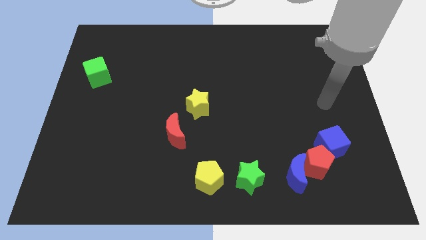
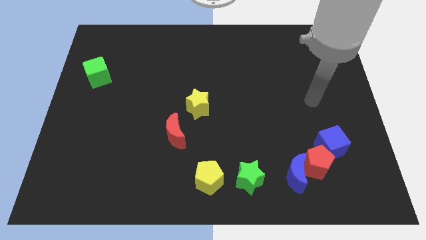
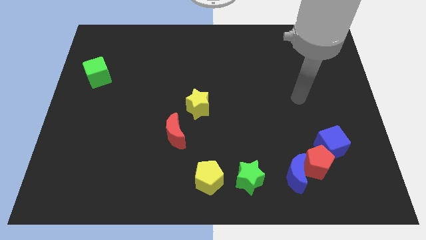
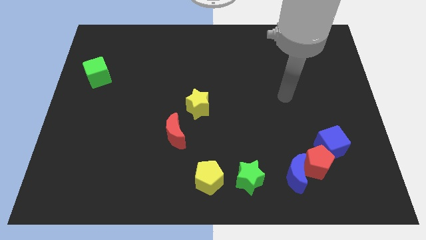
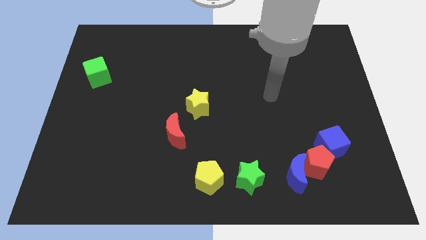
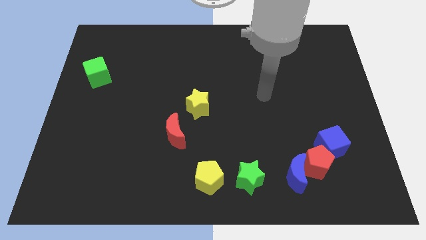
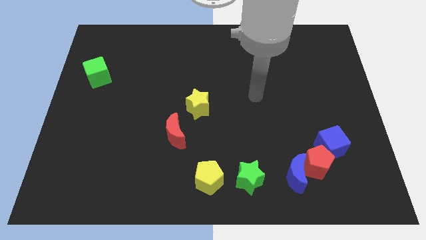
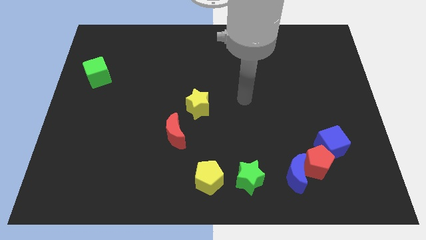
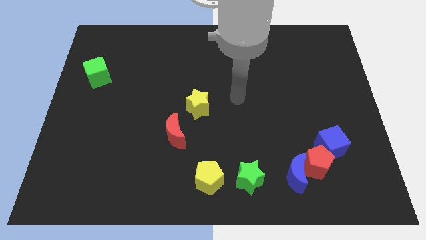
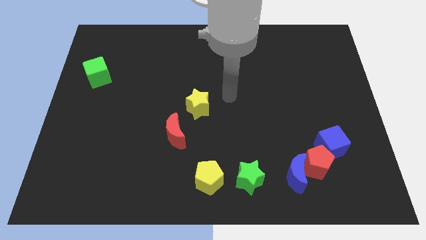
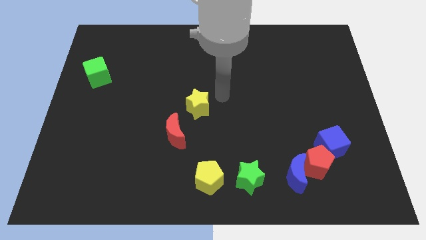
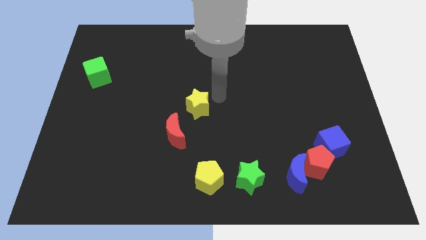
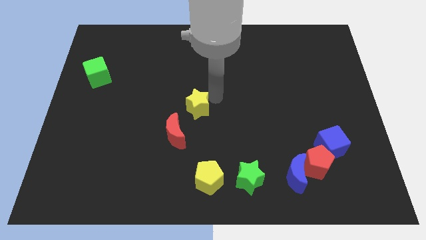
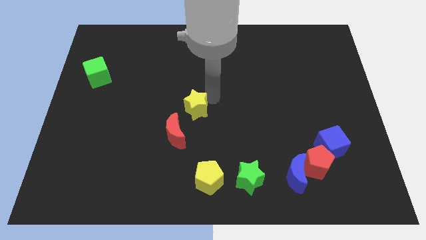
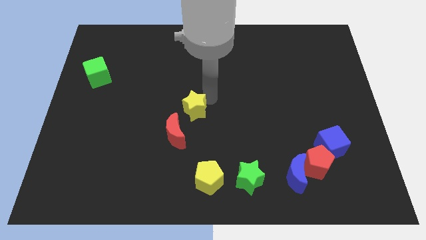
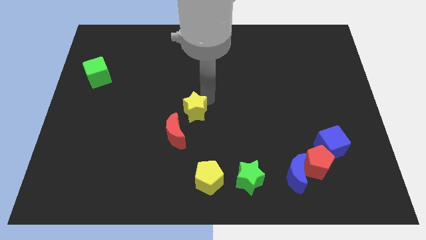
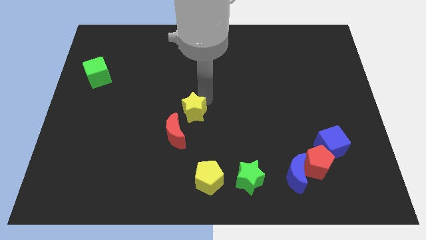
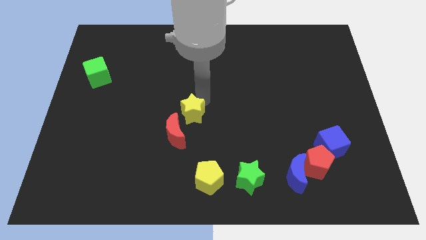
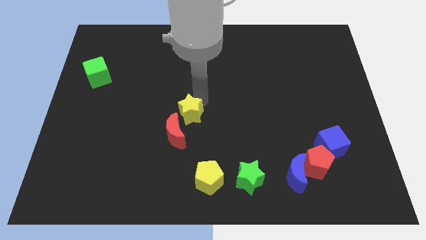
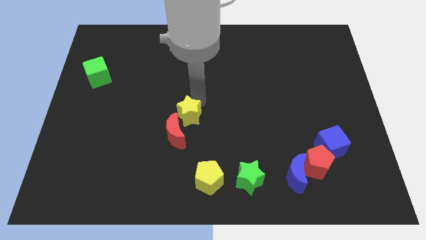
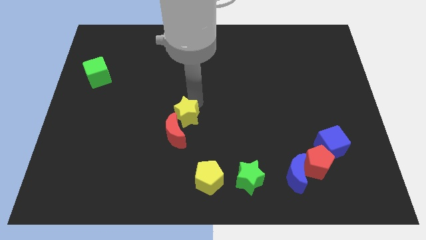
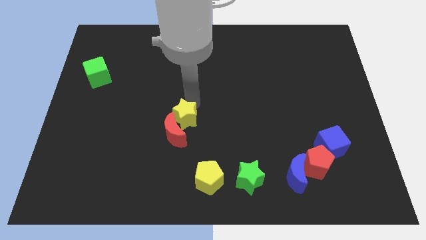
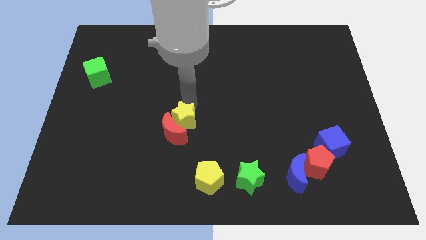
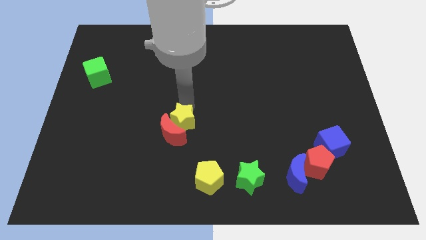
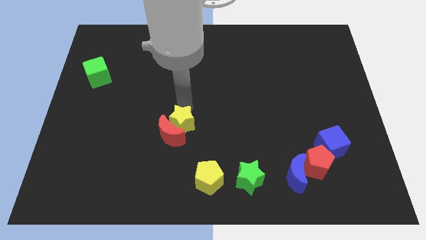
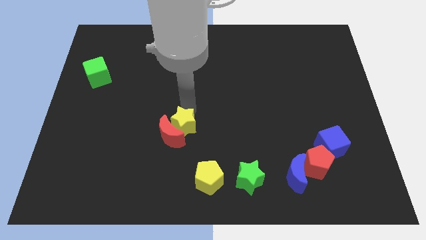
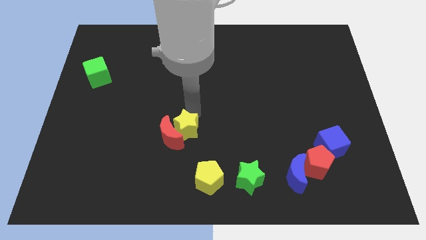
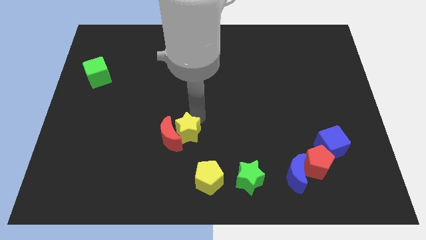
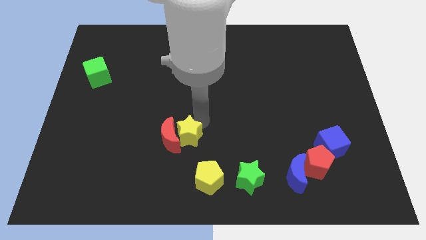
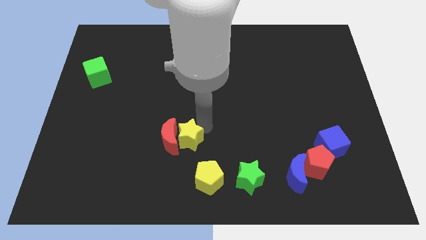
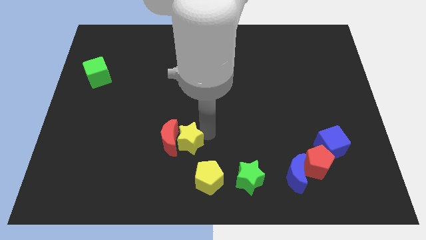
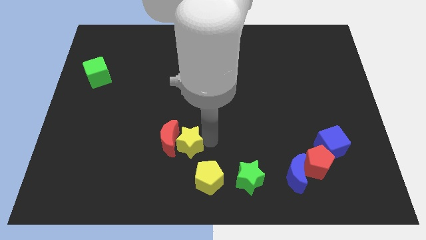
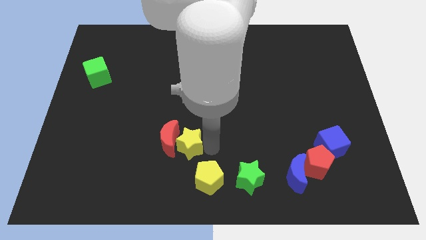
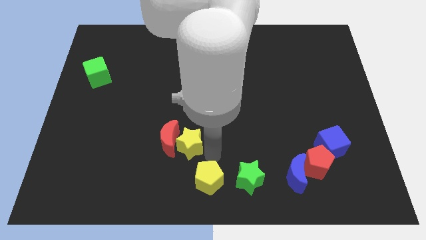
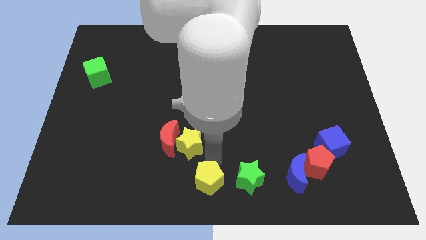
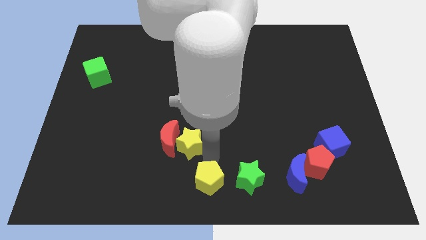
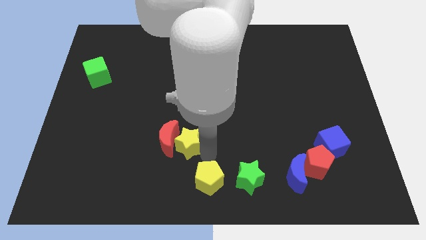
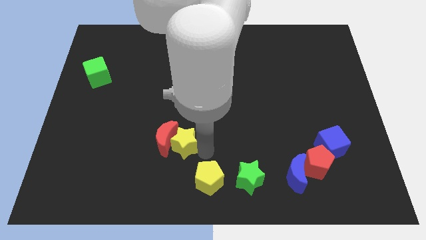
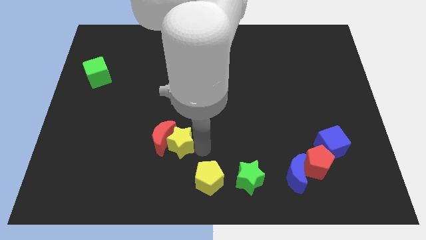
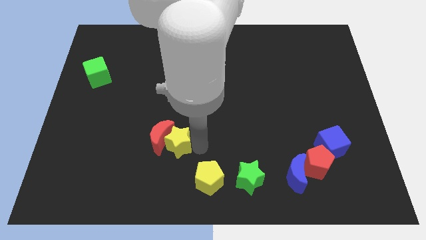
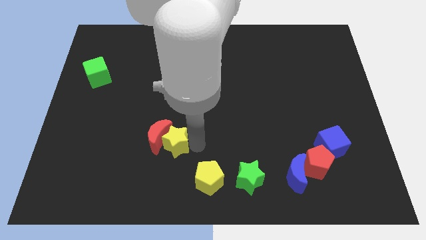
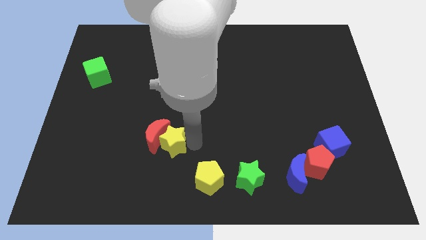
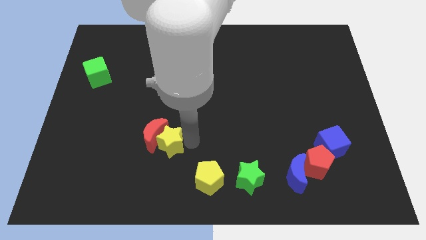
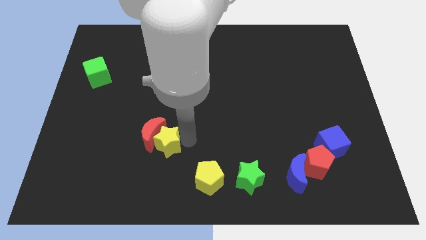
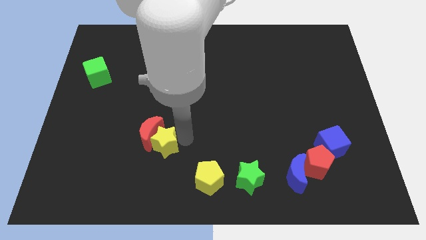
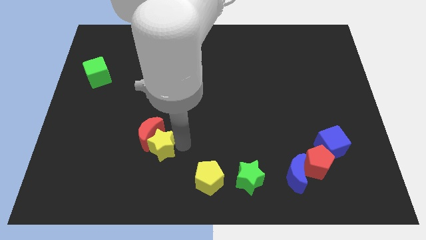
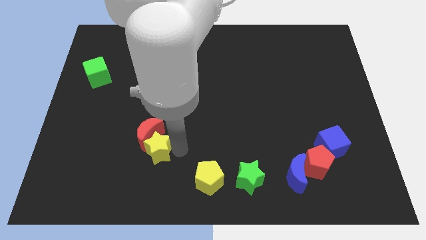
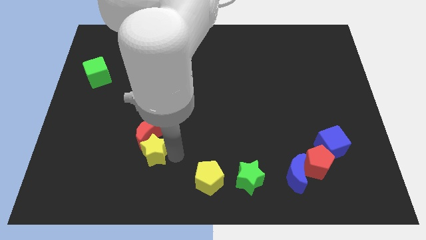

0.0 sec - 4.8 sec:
slide the yellow star to the bottom left of the red moon

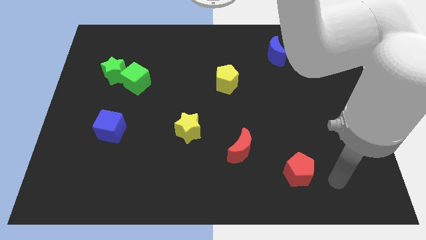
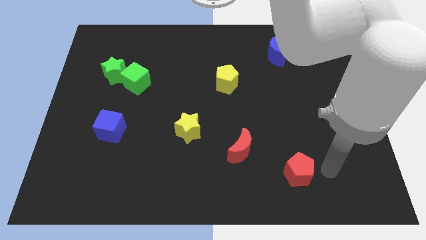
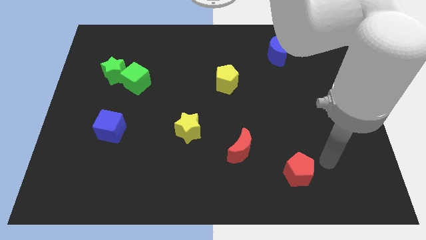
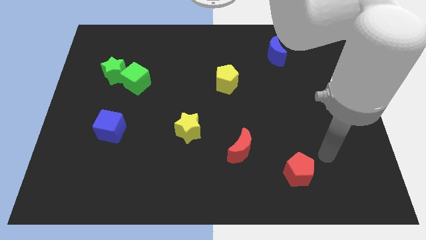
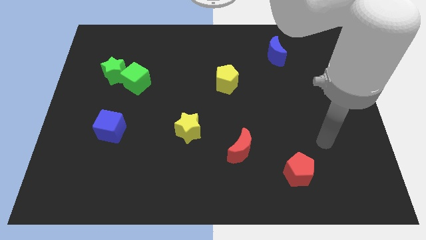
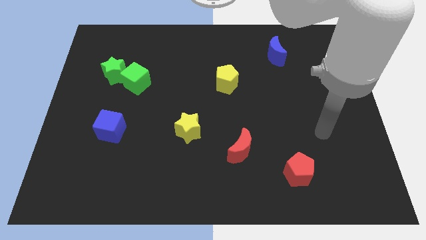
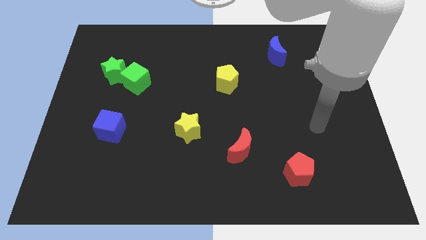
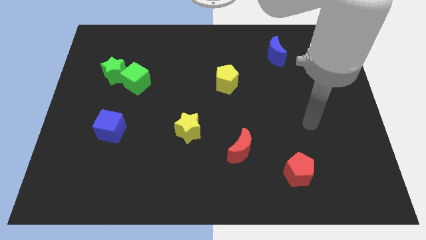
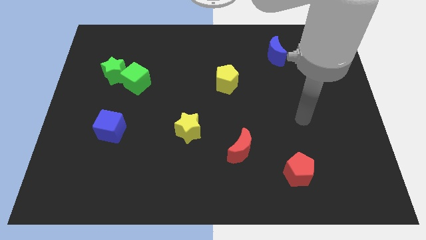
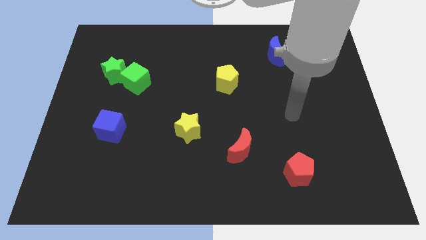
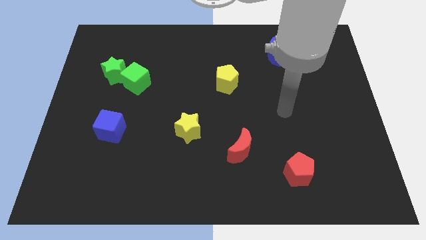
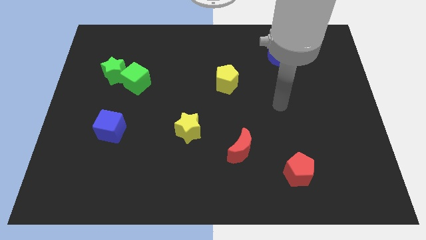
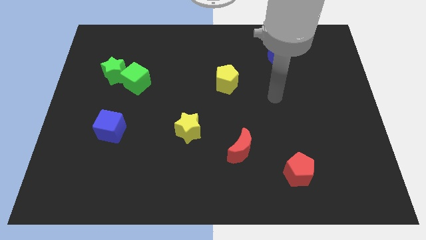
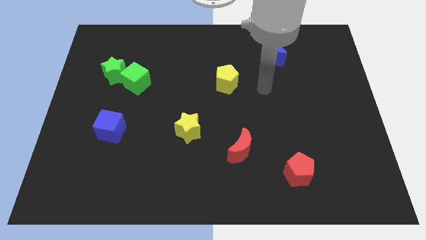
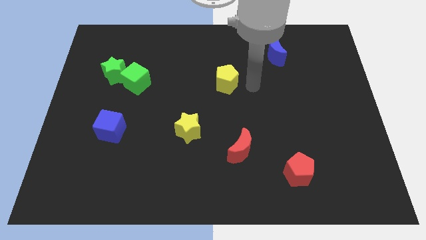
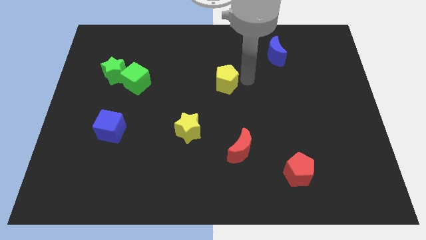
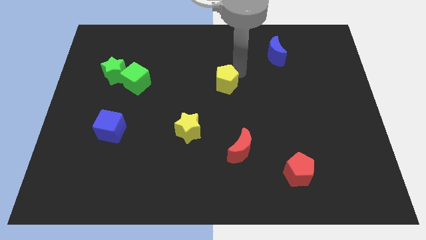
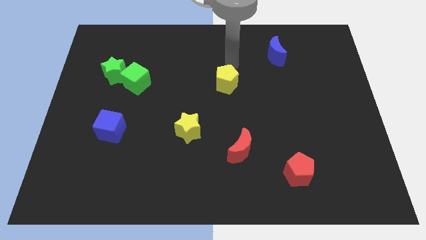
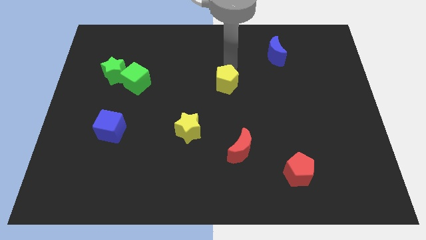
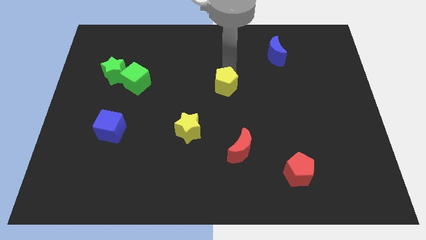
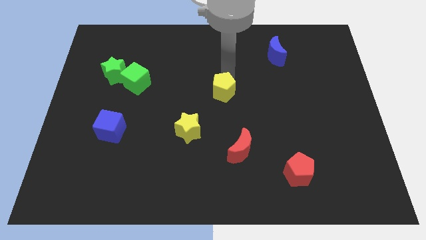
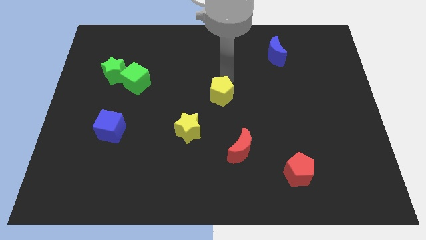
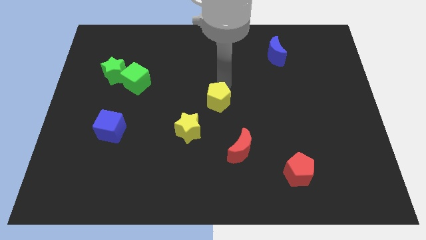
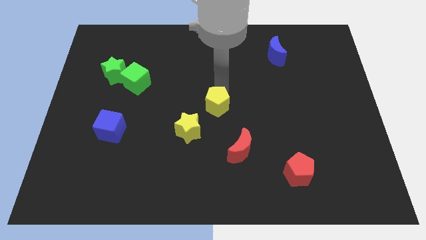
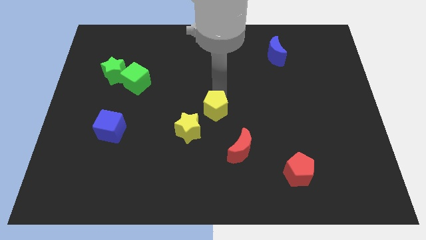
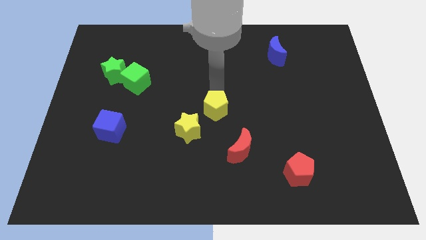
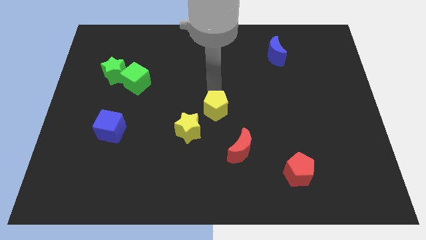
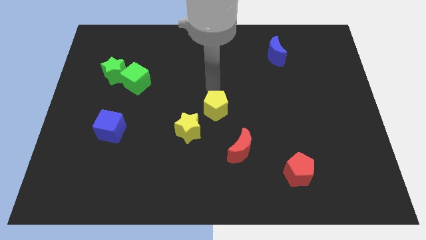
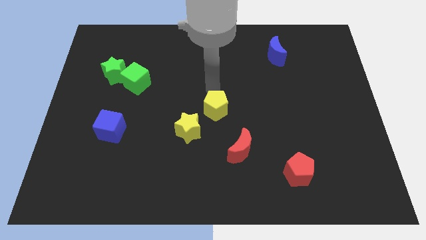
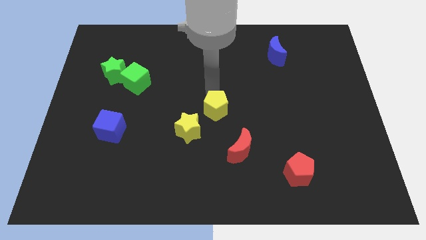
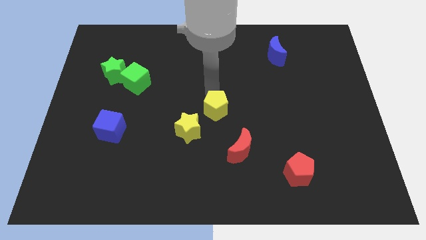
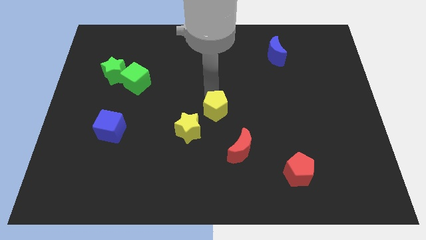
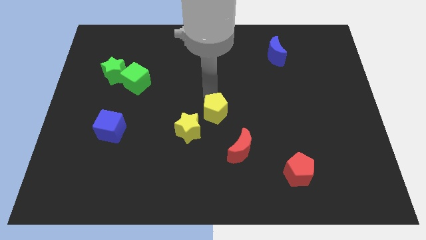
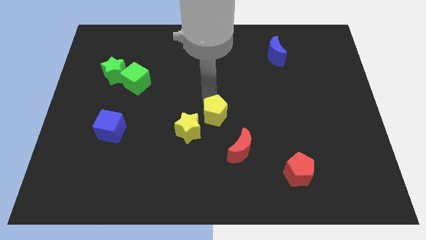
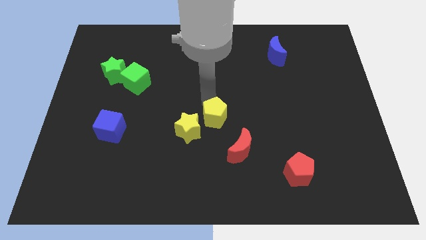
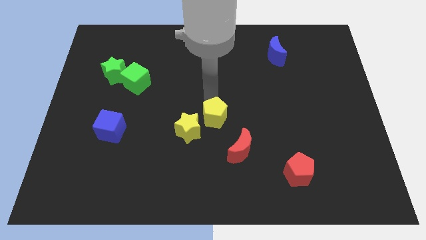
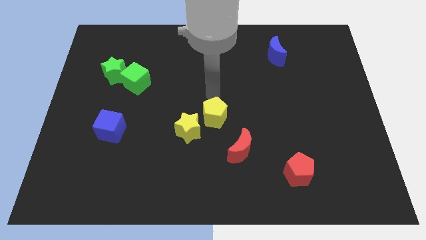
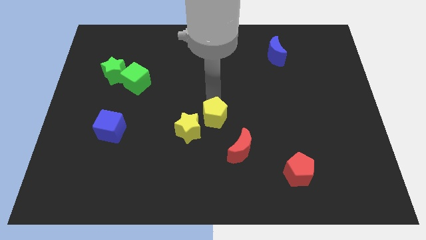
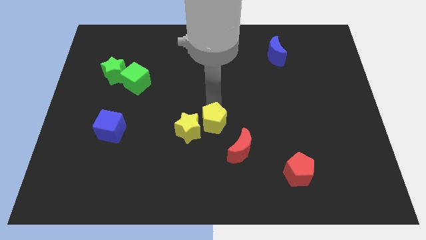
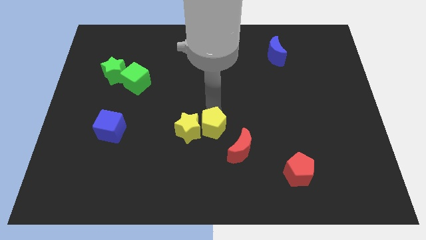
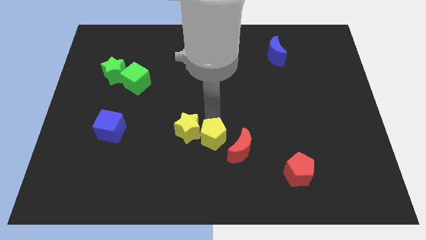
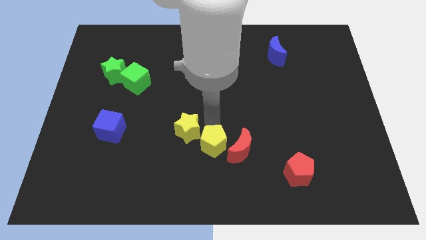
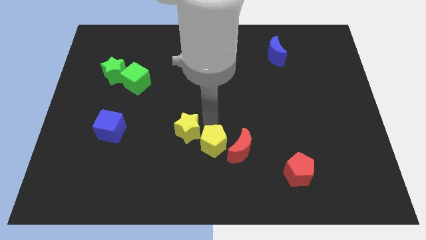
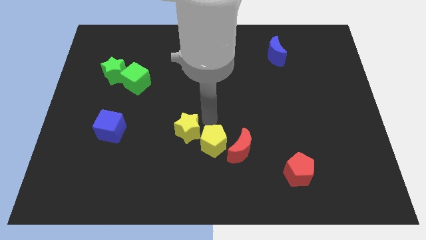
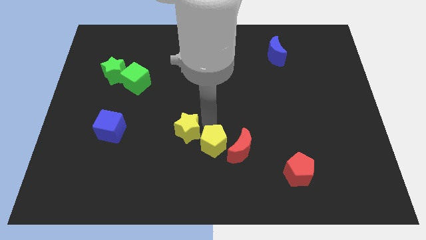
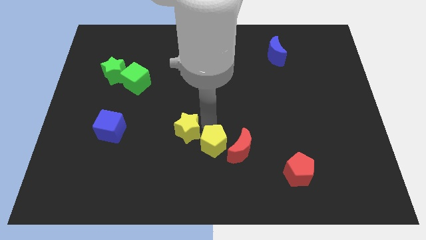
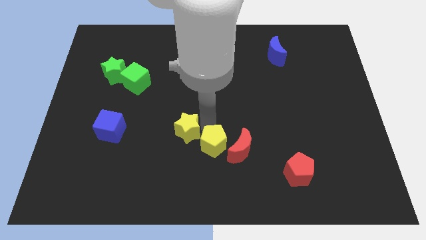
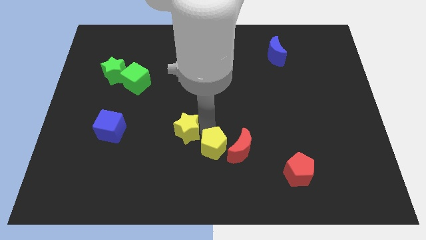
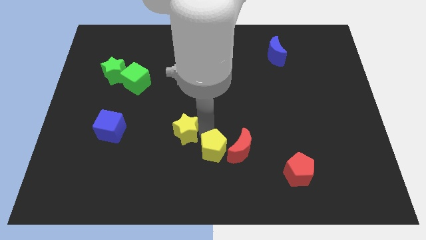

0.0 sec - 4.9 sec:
put the yellow pentagon to the bottom left of the red moon
